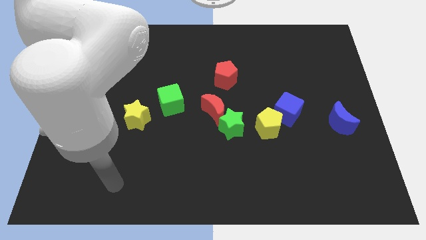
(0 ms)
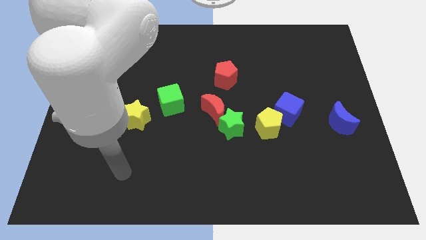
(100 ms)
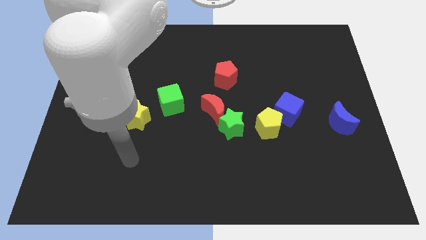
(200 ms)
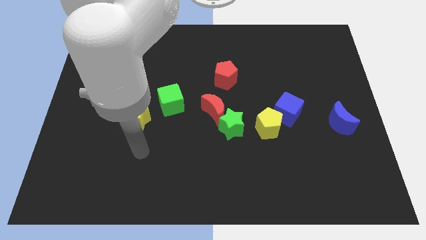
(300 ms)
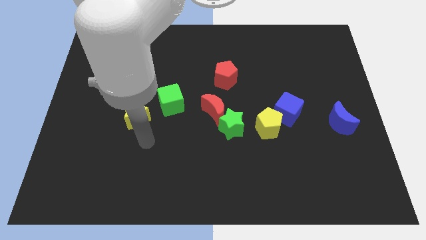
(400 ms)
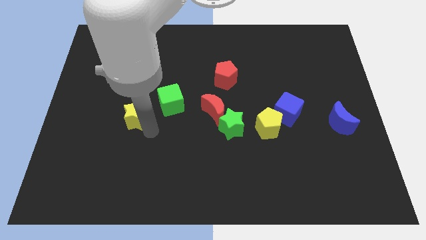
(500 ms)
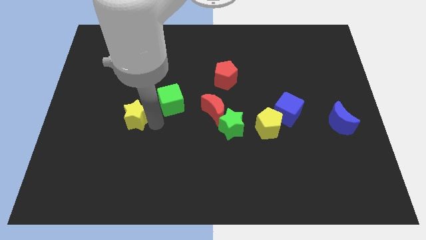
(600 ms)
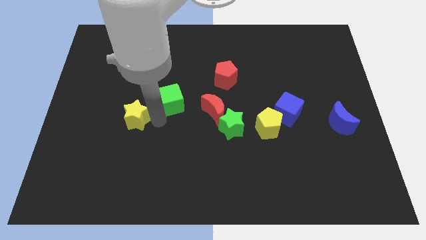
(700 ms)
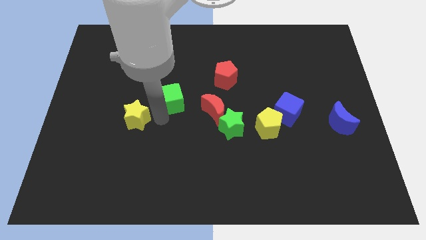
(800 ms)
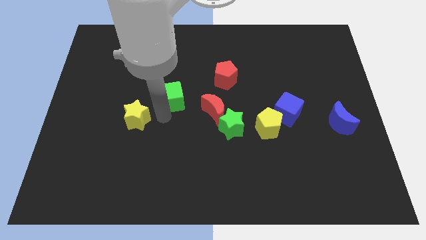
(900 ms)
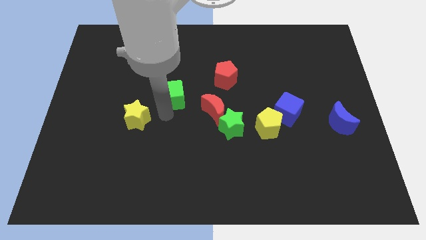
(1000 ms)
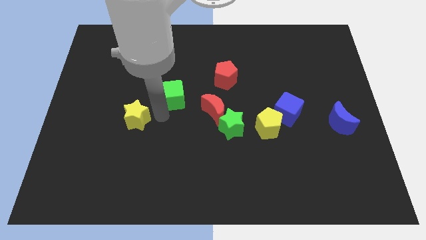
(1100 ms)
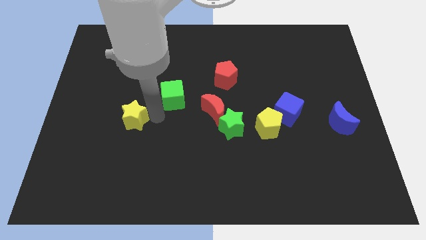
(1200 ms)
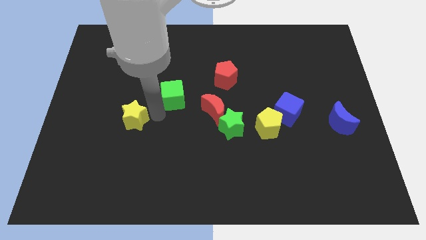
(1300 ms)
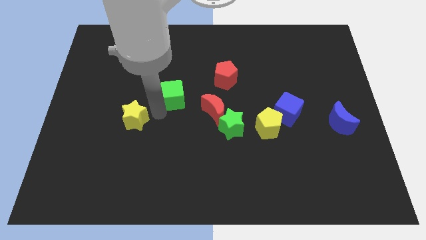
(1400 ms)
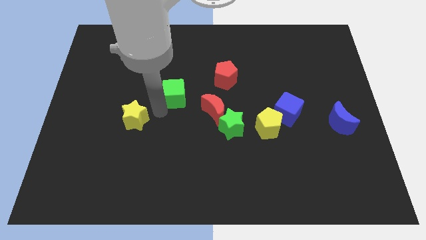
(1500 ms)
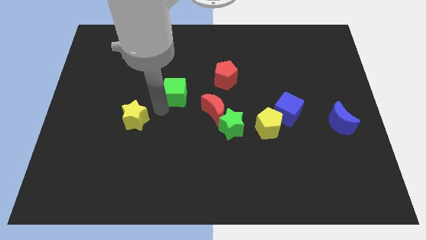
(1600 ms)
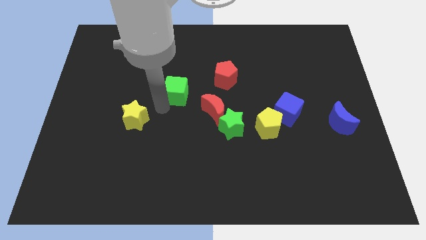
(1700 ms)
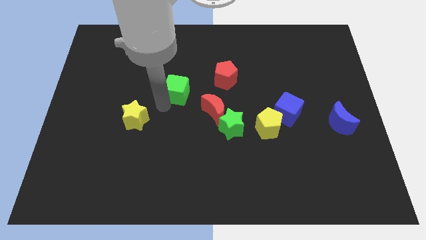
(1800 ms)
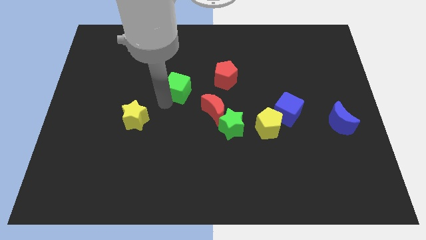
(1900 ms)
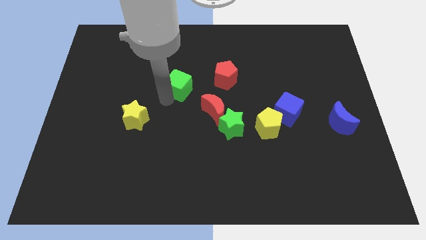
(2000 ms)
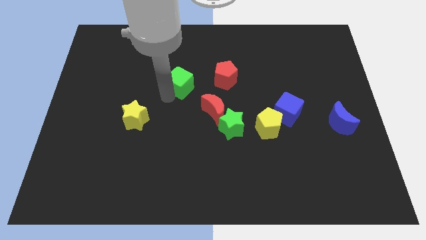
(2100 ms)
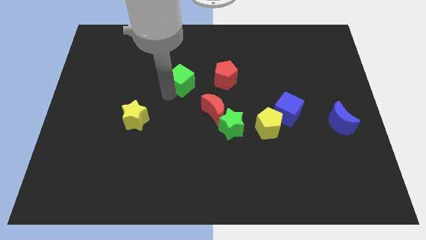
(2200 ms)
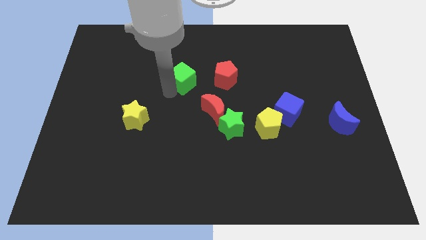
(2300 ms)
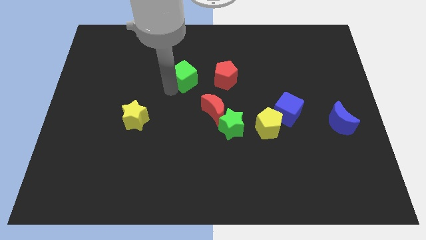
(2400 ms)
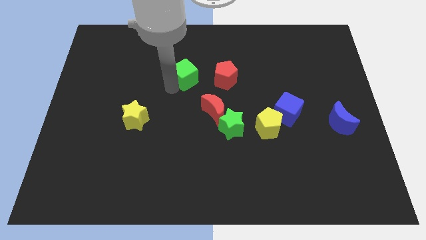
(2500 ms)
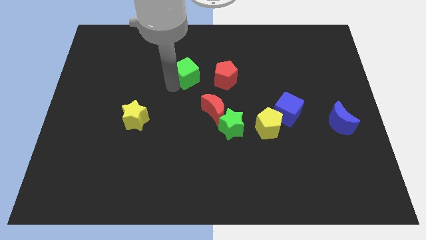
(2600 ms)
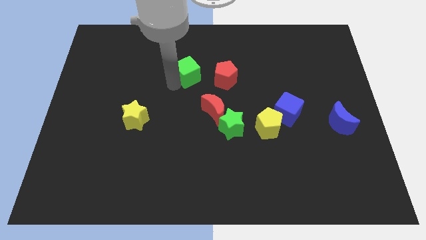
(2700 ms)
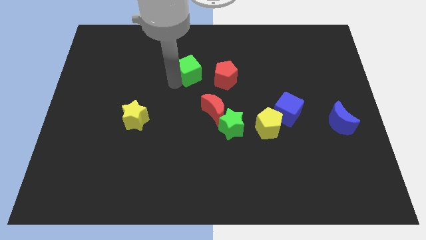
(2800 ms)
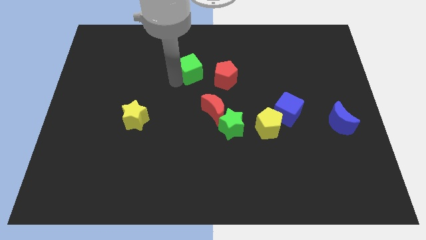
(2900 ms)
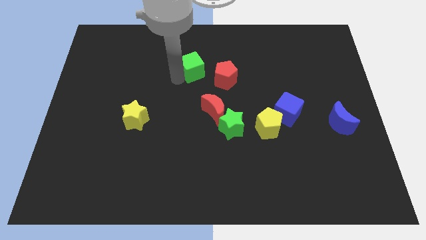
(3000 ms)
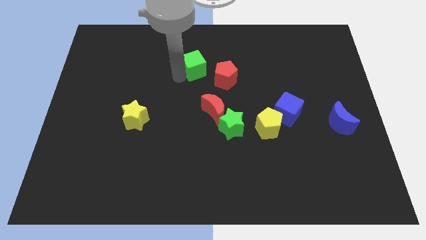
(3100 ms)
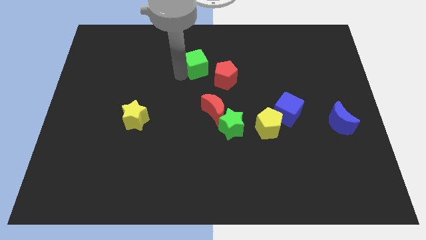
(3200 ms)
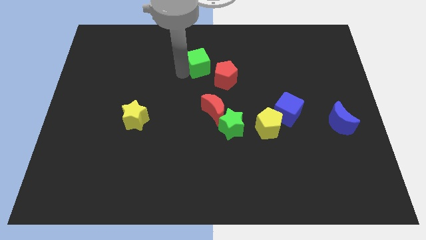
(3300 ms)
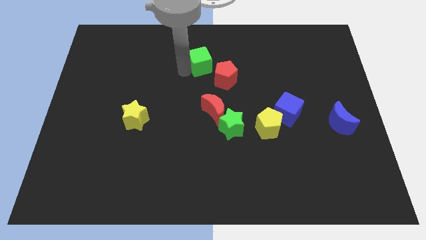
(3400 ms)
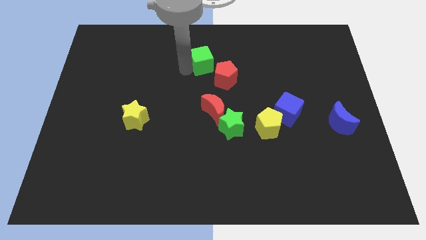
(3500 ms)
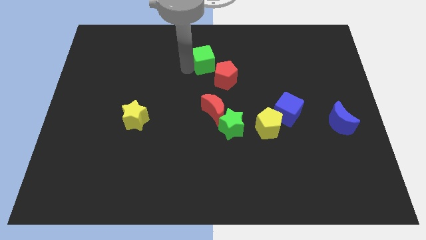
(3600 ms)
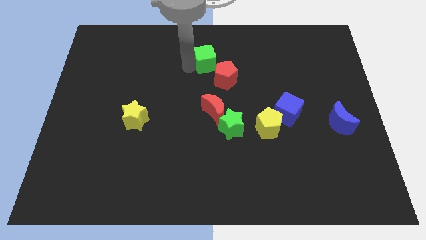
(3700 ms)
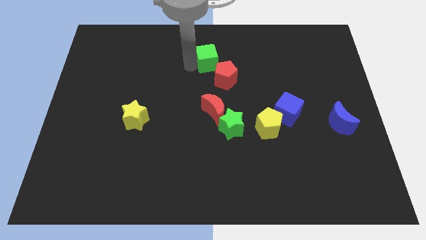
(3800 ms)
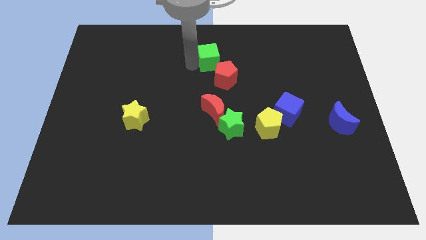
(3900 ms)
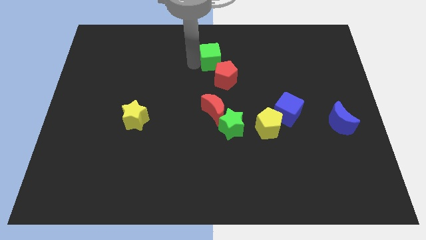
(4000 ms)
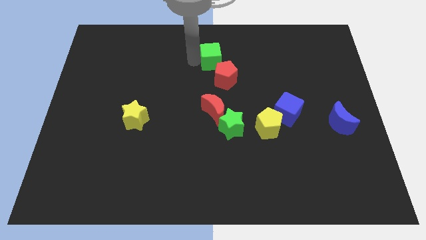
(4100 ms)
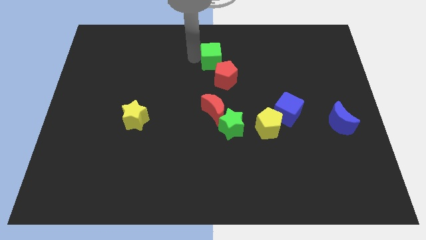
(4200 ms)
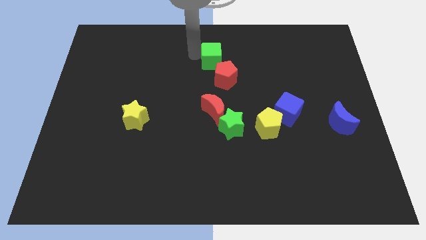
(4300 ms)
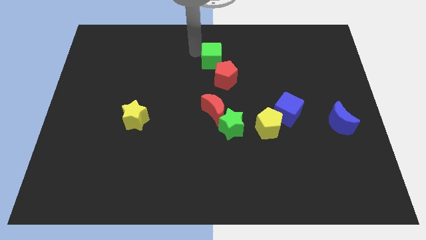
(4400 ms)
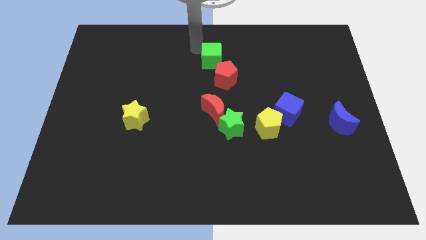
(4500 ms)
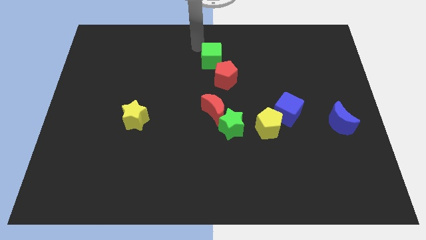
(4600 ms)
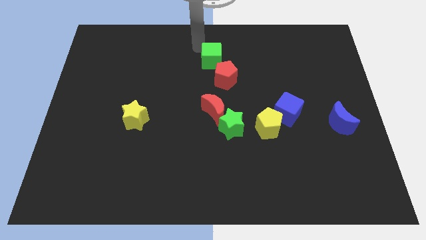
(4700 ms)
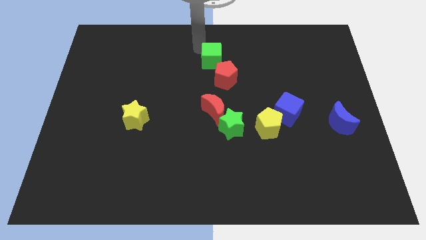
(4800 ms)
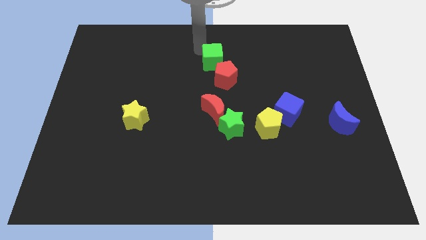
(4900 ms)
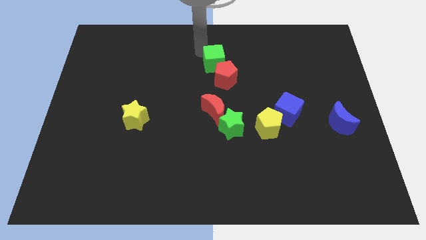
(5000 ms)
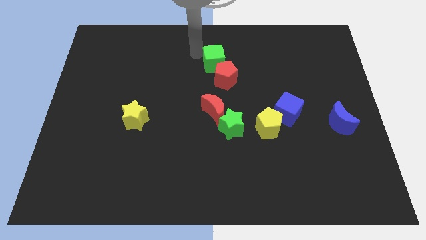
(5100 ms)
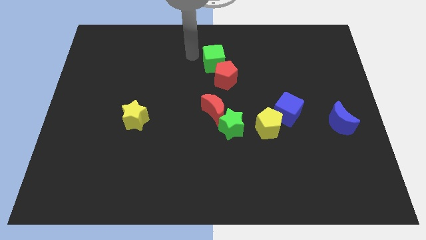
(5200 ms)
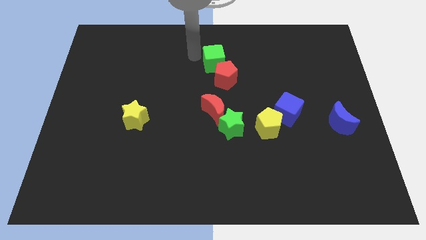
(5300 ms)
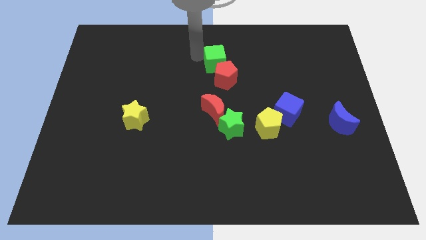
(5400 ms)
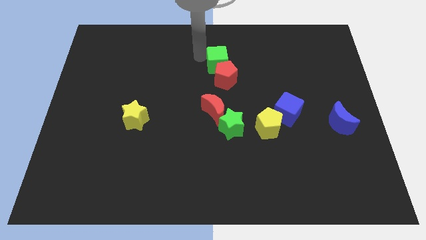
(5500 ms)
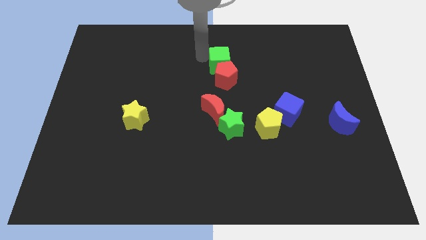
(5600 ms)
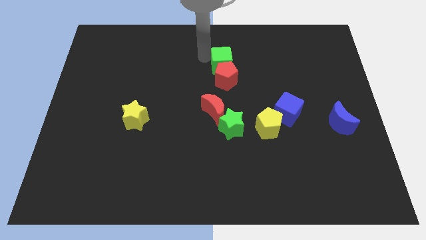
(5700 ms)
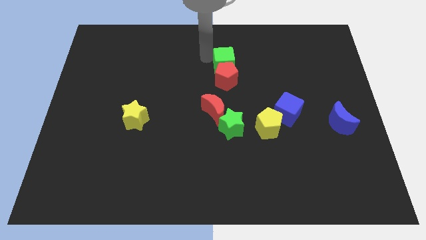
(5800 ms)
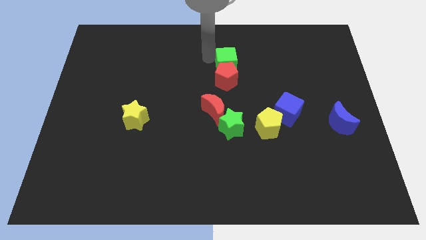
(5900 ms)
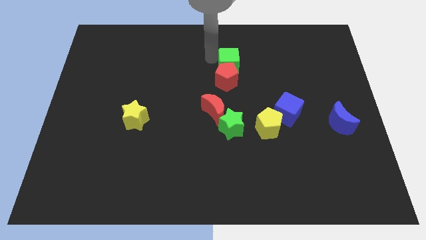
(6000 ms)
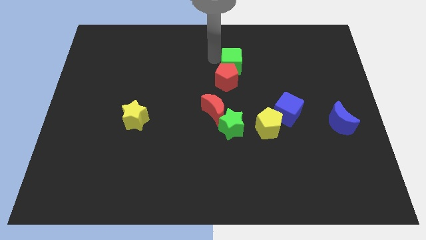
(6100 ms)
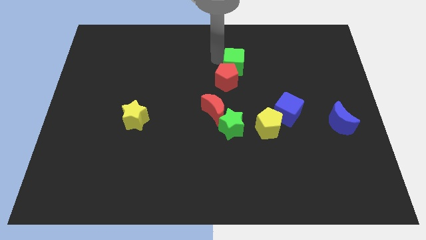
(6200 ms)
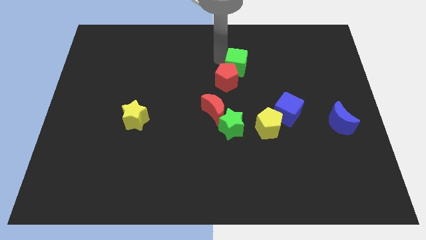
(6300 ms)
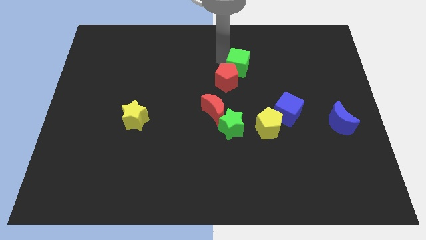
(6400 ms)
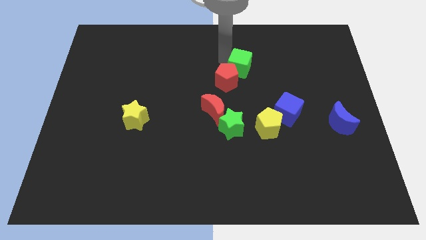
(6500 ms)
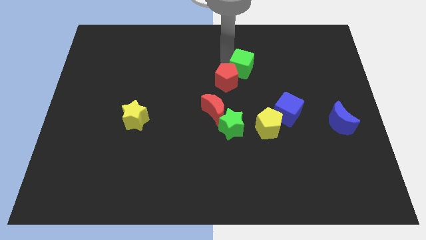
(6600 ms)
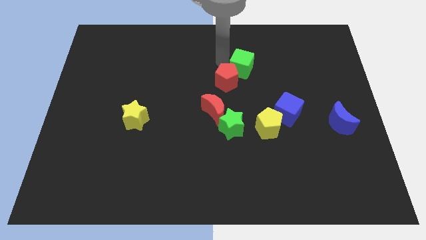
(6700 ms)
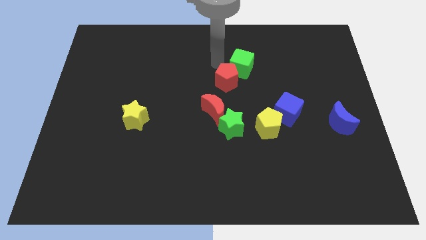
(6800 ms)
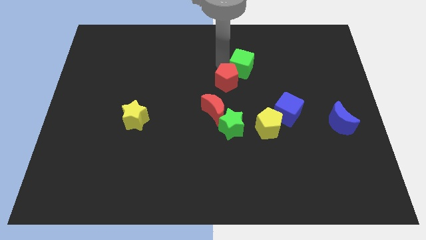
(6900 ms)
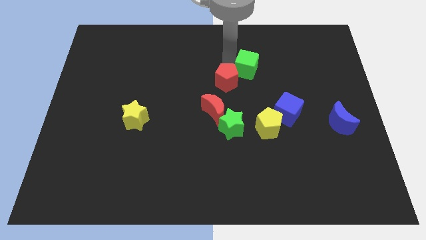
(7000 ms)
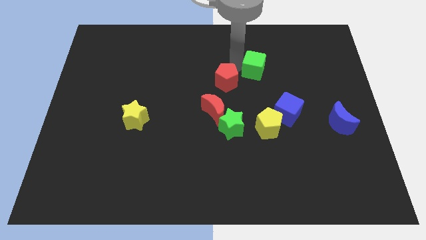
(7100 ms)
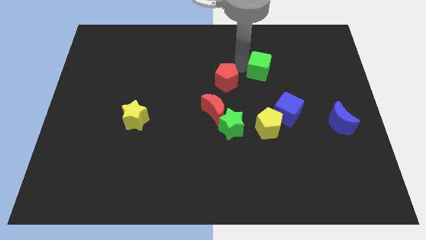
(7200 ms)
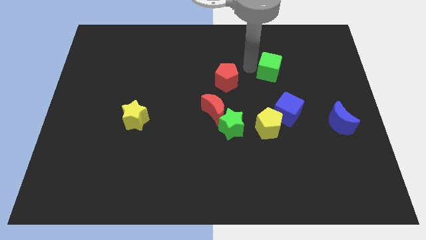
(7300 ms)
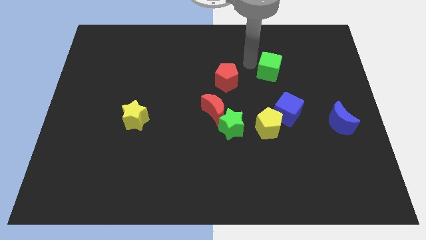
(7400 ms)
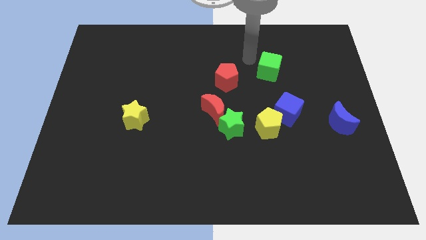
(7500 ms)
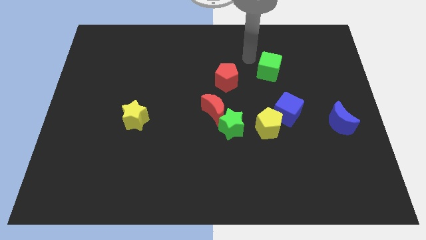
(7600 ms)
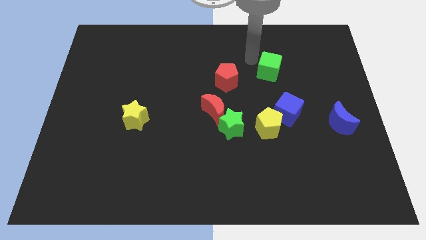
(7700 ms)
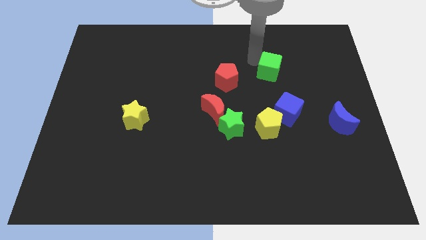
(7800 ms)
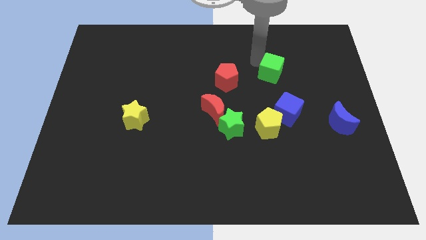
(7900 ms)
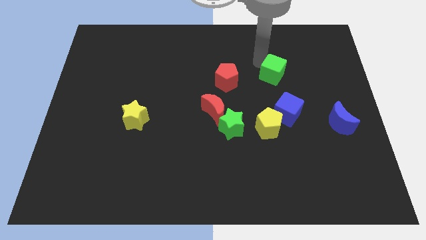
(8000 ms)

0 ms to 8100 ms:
move the green cube to the right
